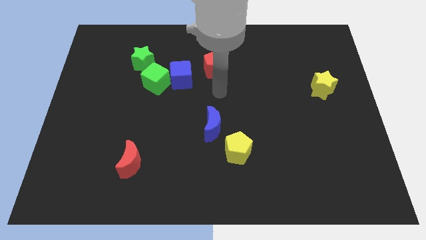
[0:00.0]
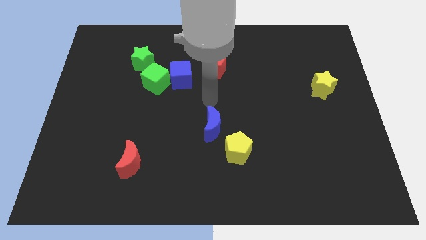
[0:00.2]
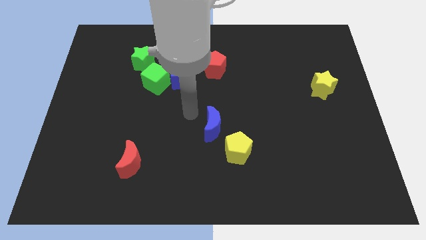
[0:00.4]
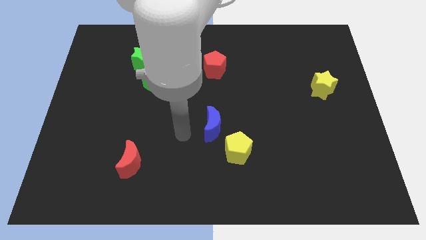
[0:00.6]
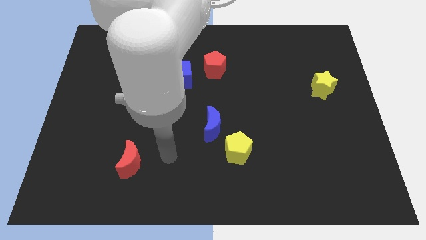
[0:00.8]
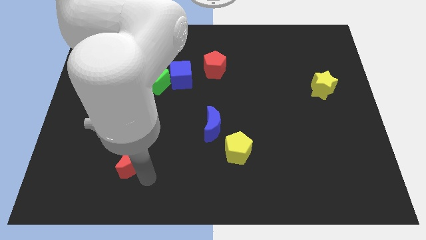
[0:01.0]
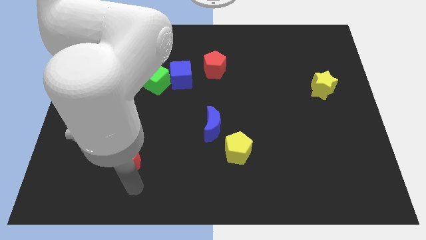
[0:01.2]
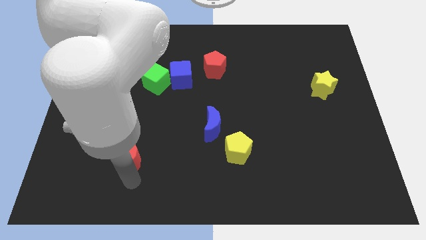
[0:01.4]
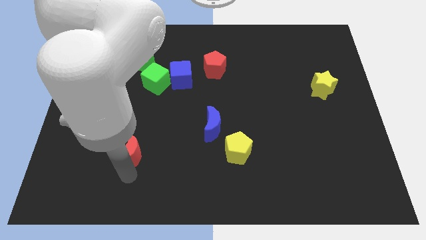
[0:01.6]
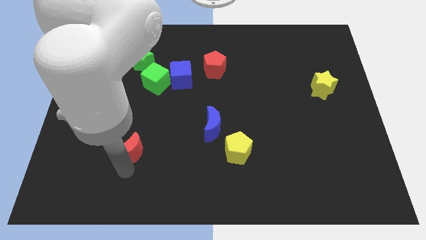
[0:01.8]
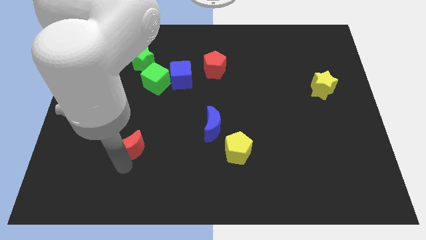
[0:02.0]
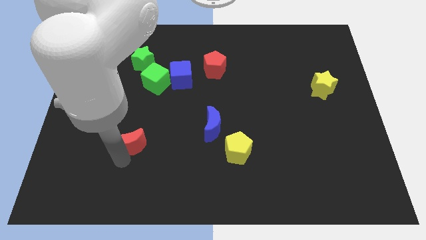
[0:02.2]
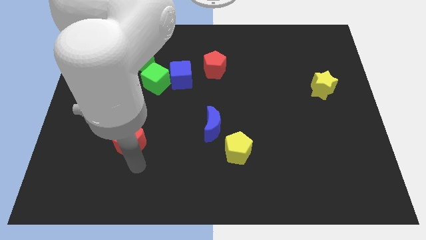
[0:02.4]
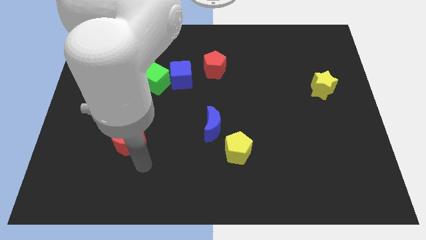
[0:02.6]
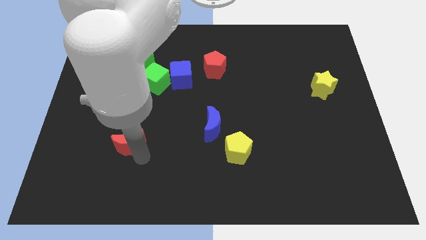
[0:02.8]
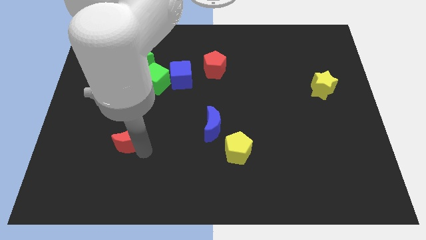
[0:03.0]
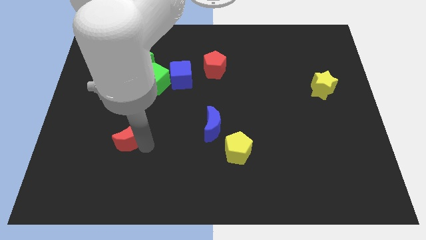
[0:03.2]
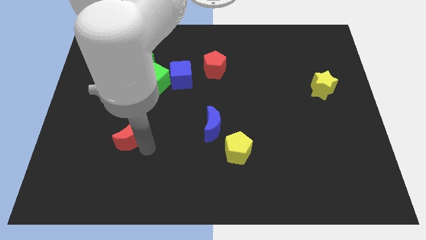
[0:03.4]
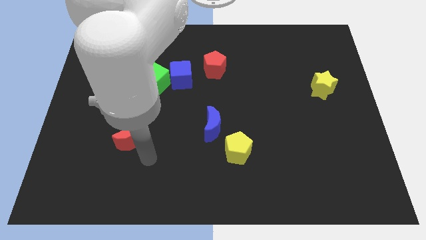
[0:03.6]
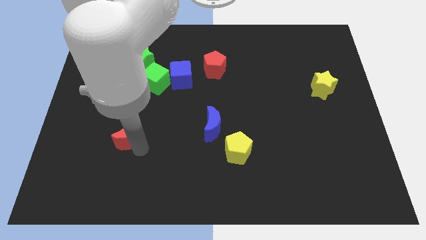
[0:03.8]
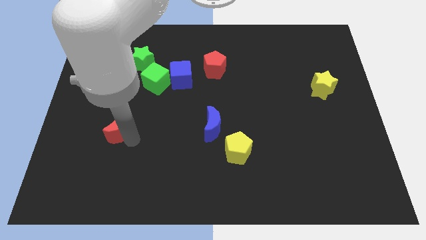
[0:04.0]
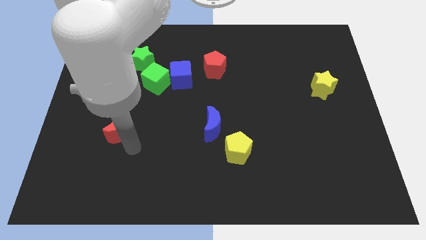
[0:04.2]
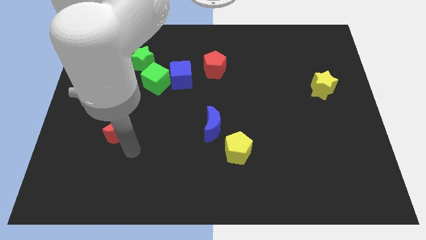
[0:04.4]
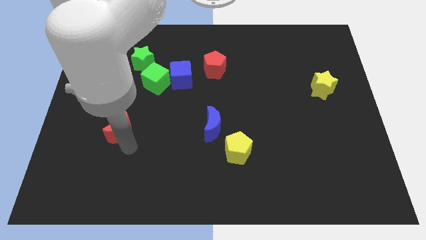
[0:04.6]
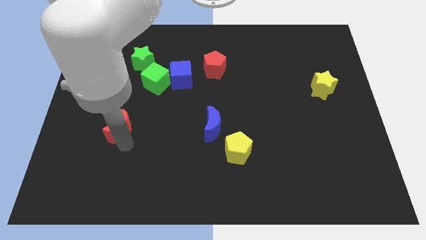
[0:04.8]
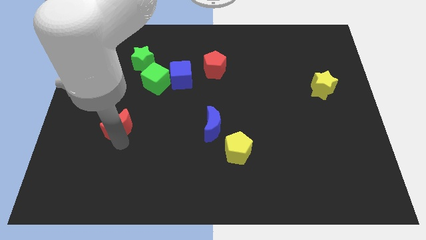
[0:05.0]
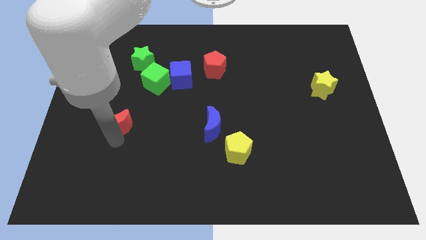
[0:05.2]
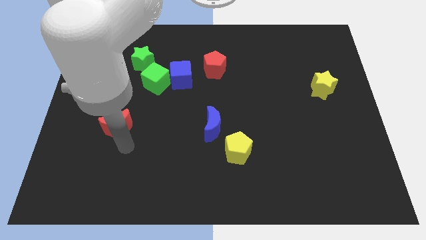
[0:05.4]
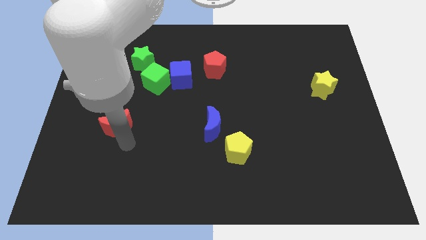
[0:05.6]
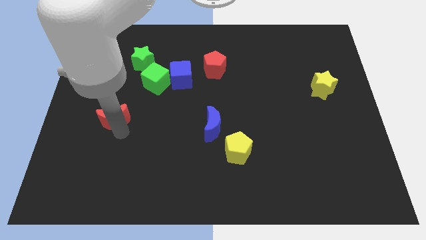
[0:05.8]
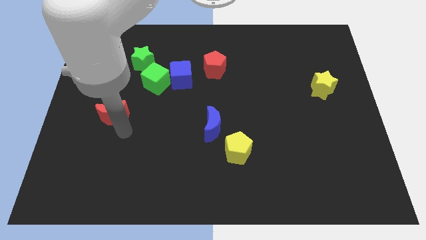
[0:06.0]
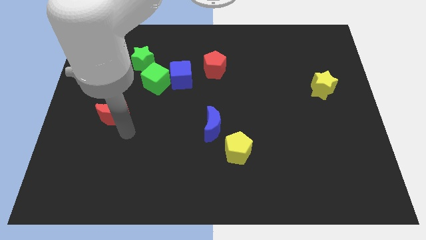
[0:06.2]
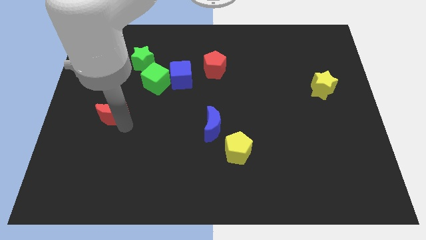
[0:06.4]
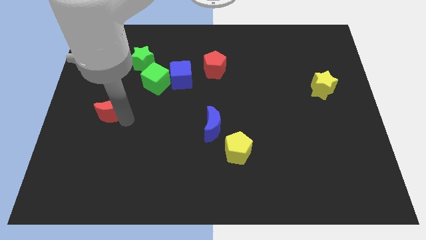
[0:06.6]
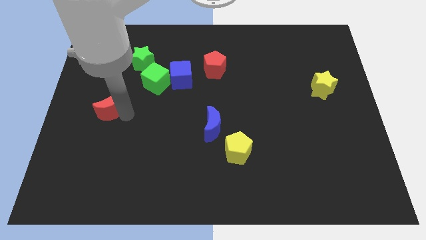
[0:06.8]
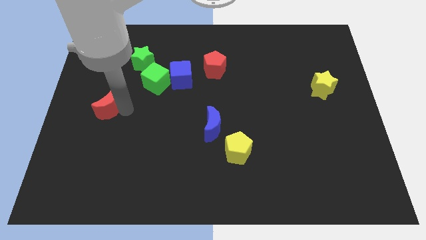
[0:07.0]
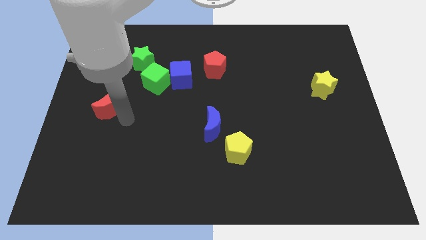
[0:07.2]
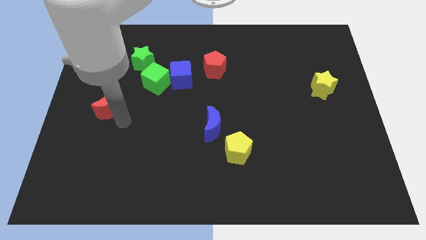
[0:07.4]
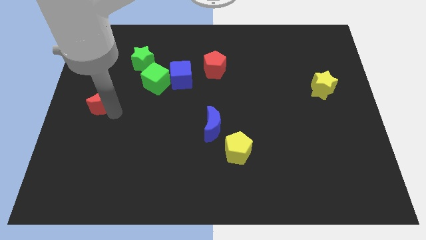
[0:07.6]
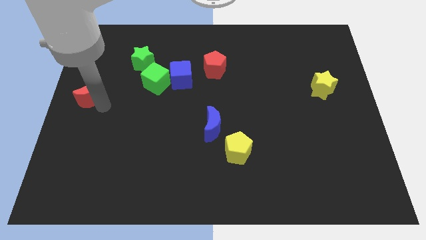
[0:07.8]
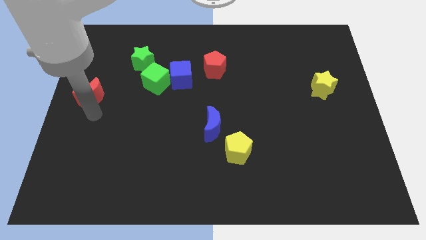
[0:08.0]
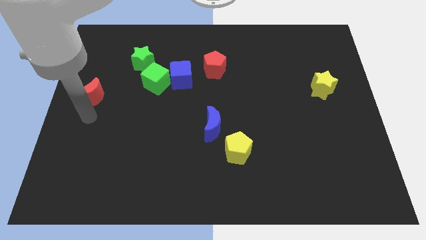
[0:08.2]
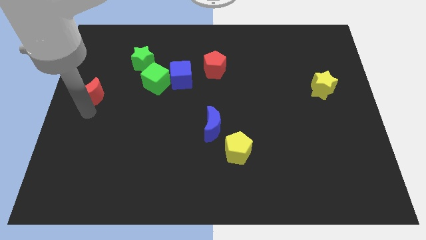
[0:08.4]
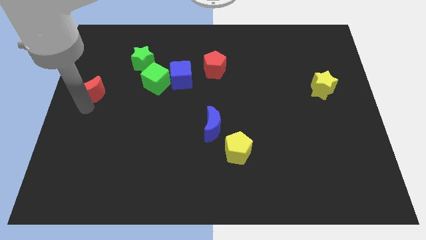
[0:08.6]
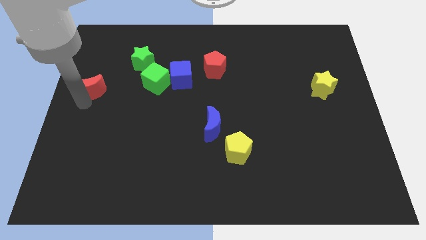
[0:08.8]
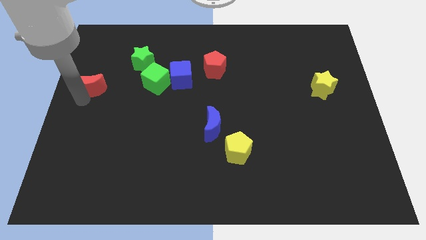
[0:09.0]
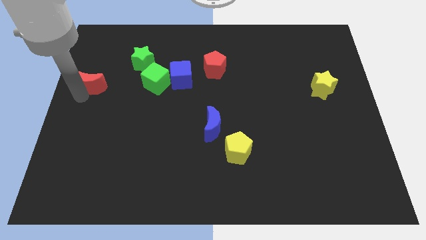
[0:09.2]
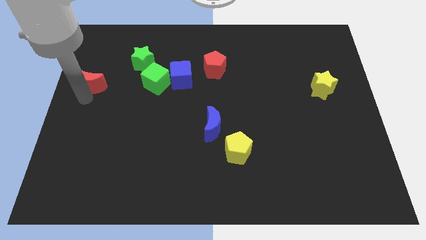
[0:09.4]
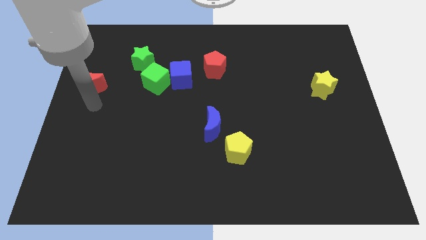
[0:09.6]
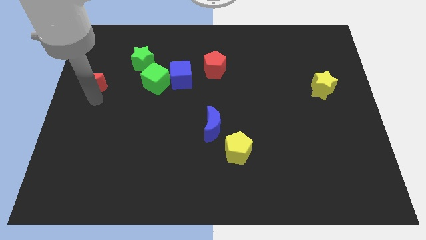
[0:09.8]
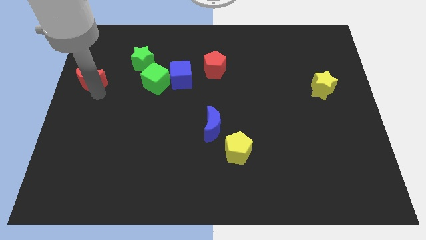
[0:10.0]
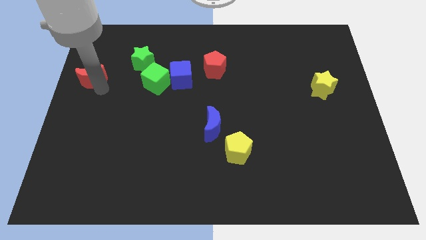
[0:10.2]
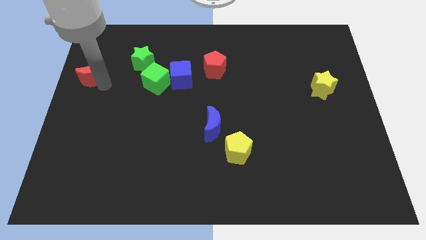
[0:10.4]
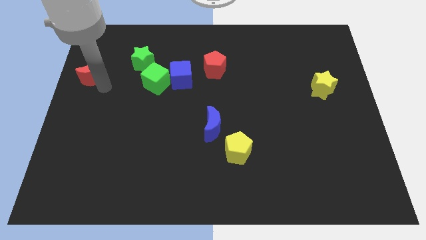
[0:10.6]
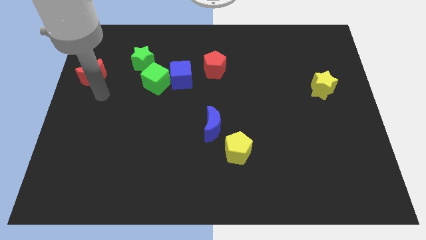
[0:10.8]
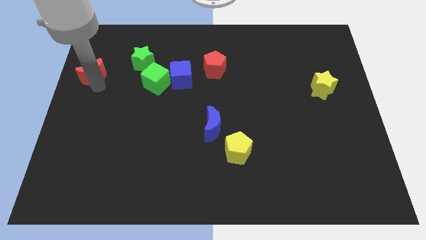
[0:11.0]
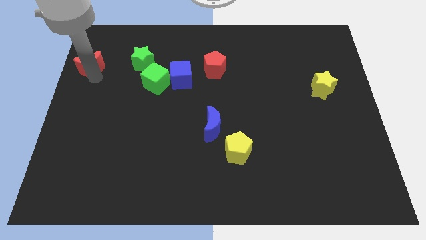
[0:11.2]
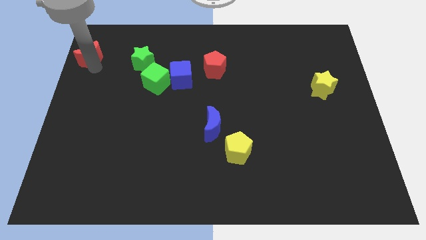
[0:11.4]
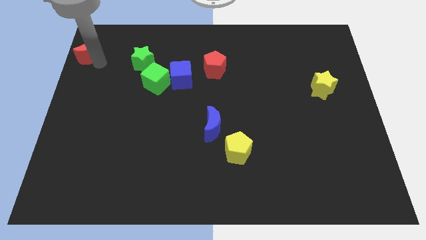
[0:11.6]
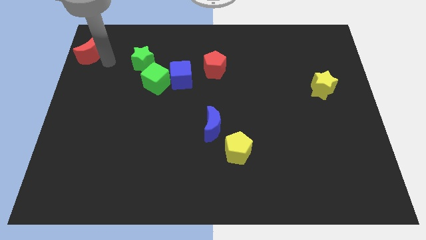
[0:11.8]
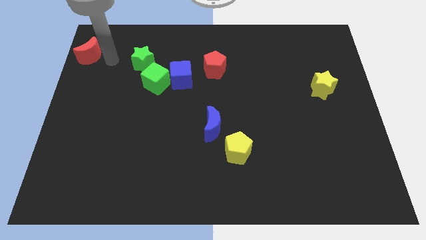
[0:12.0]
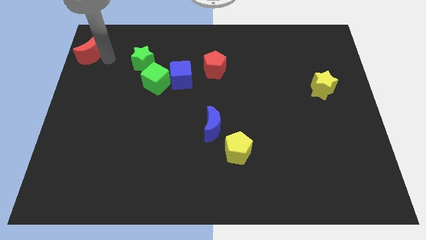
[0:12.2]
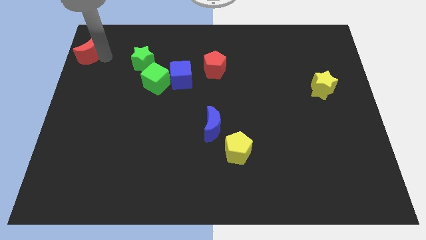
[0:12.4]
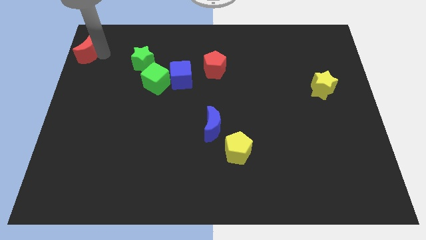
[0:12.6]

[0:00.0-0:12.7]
move the red moon to the upper left corner
